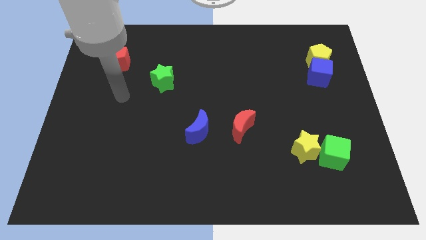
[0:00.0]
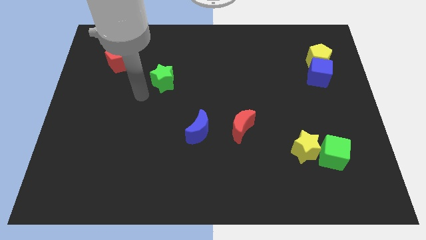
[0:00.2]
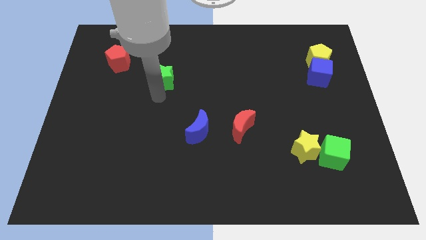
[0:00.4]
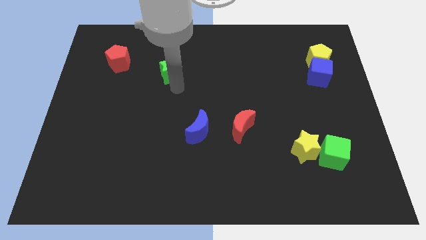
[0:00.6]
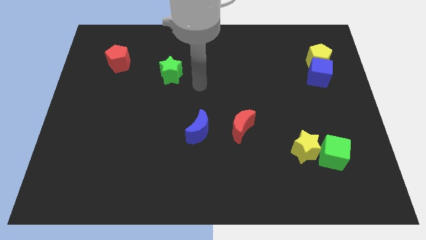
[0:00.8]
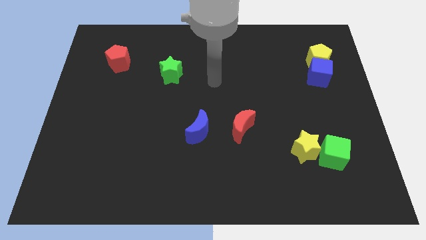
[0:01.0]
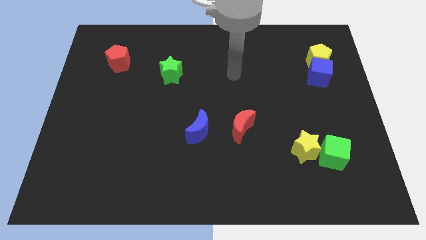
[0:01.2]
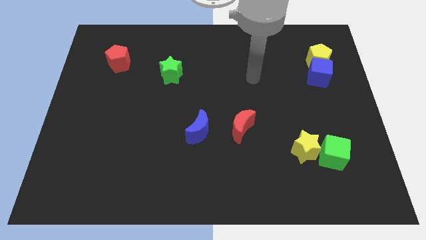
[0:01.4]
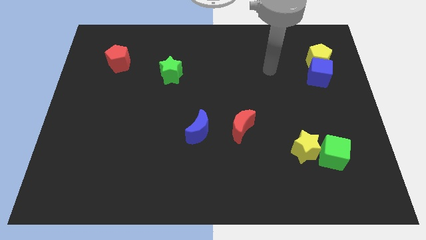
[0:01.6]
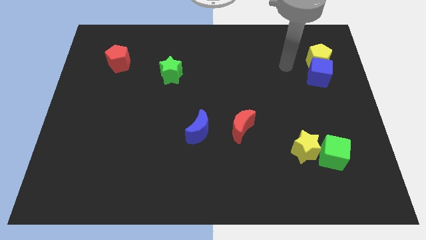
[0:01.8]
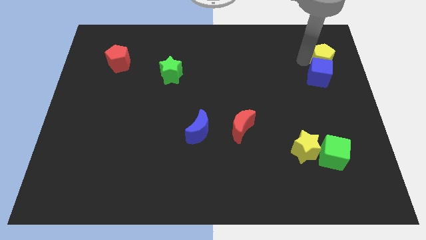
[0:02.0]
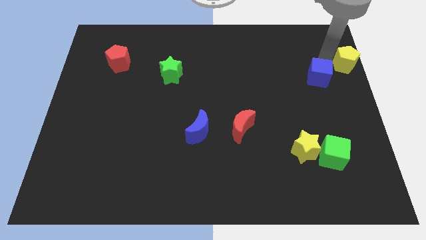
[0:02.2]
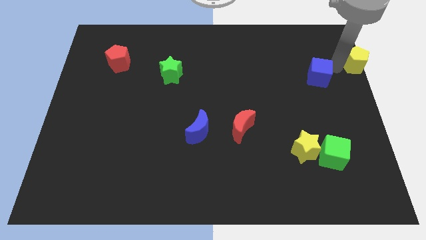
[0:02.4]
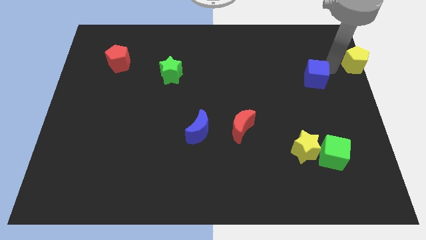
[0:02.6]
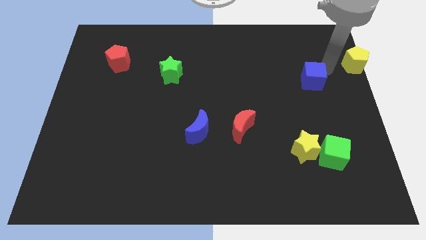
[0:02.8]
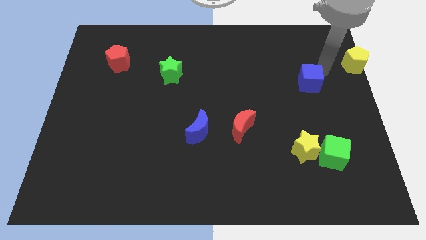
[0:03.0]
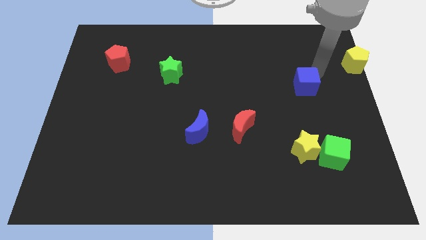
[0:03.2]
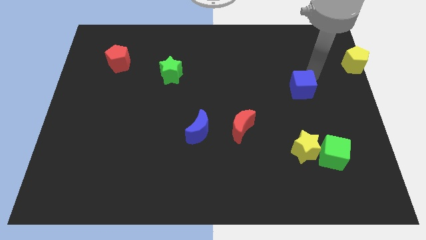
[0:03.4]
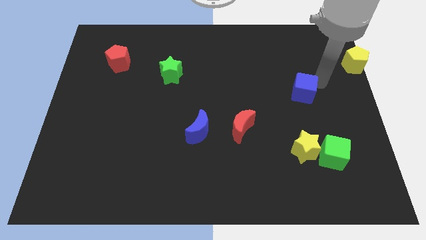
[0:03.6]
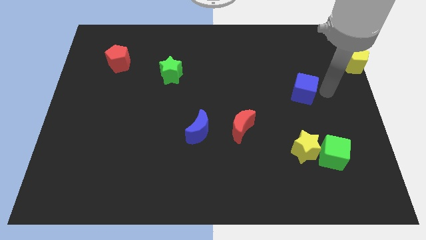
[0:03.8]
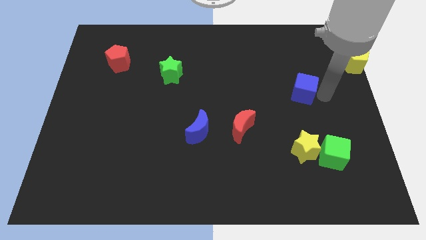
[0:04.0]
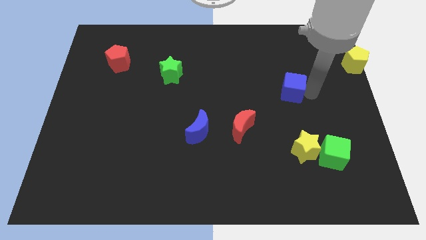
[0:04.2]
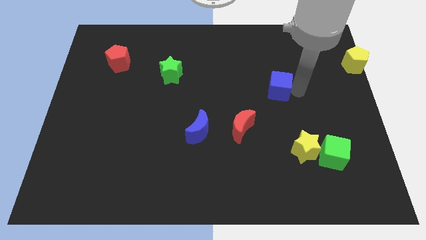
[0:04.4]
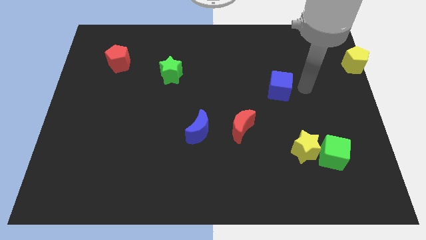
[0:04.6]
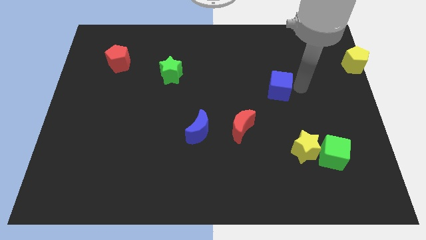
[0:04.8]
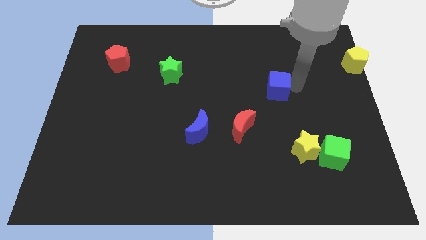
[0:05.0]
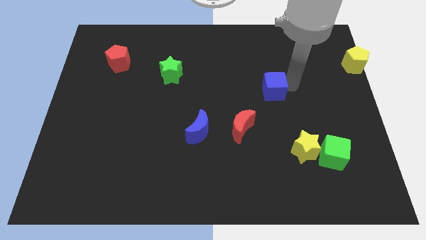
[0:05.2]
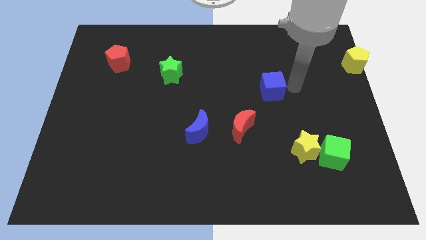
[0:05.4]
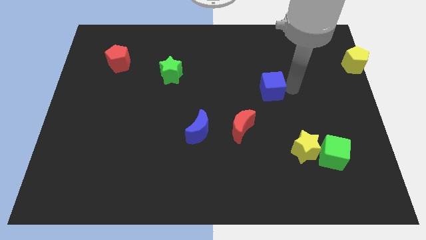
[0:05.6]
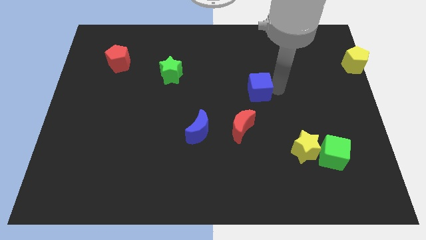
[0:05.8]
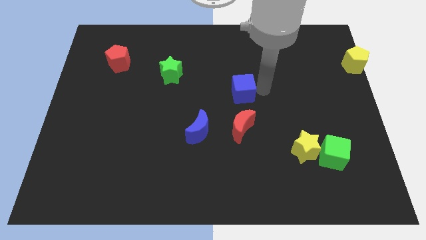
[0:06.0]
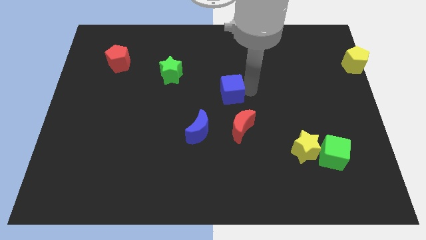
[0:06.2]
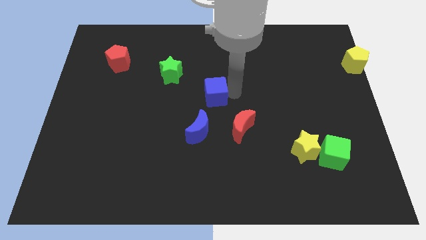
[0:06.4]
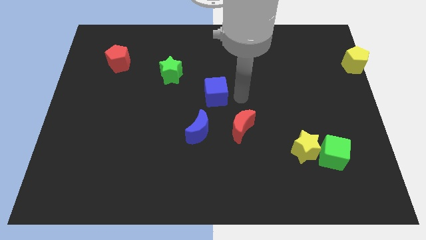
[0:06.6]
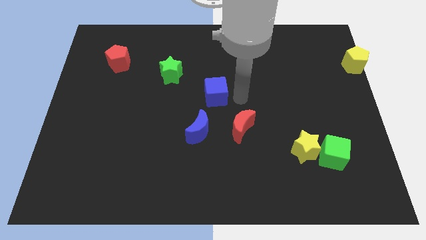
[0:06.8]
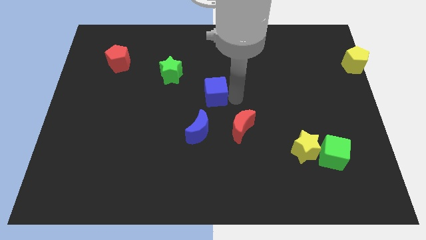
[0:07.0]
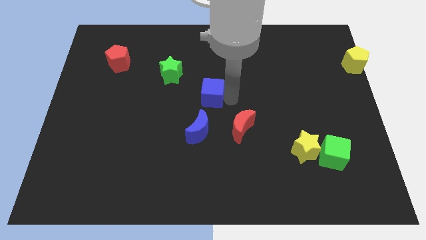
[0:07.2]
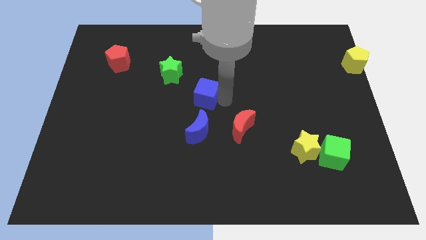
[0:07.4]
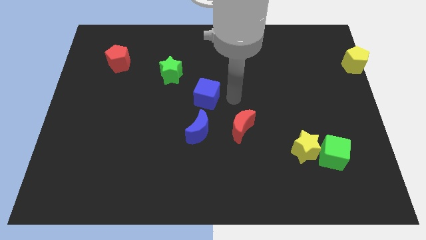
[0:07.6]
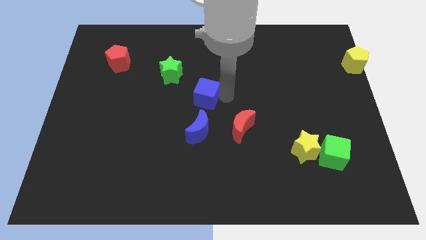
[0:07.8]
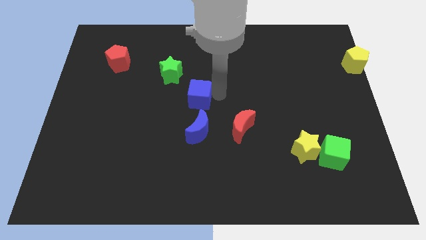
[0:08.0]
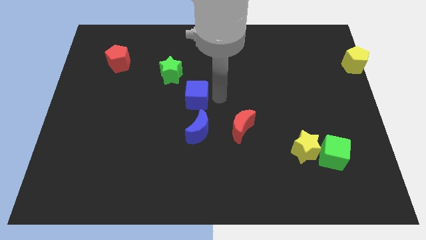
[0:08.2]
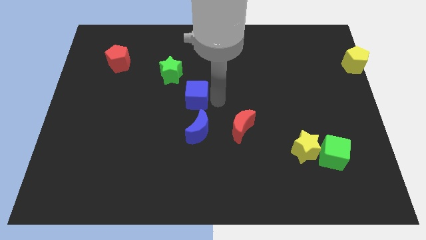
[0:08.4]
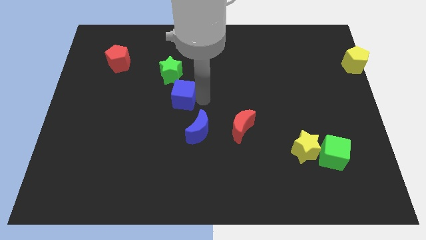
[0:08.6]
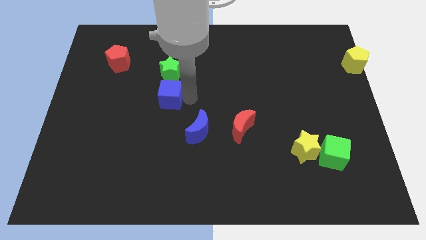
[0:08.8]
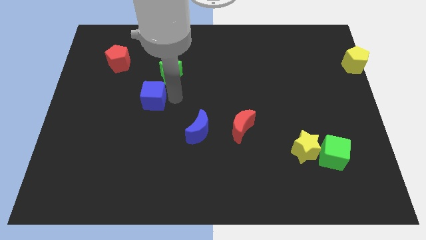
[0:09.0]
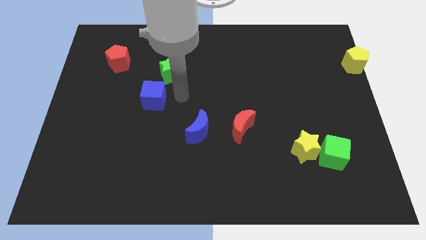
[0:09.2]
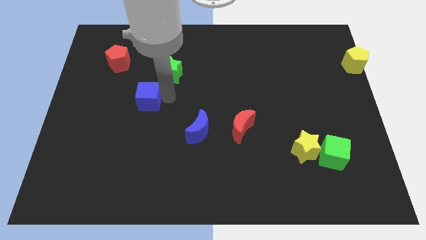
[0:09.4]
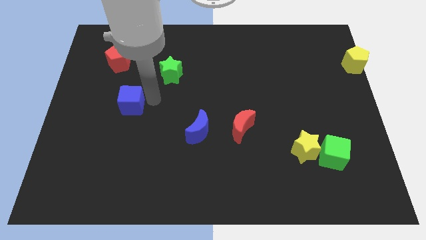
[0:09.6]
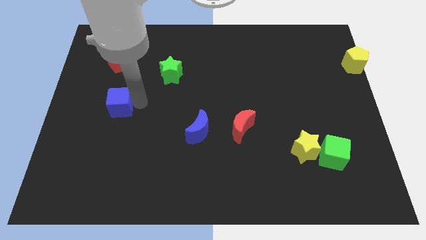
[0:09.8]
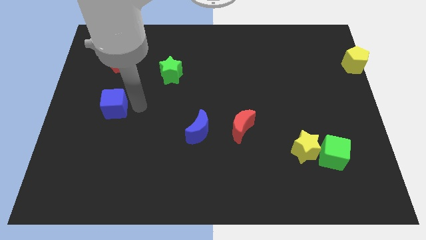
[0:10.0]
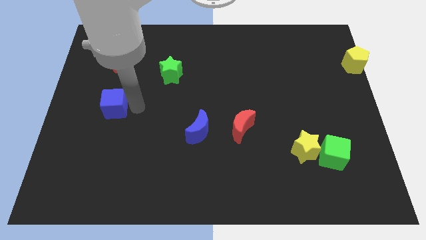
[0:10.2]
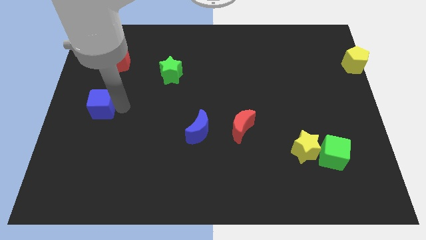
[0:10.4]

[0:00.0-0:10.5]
slide the blue cube to the left side
